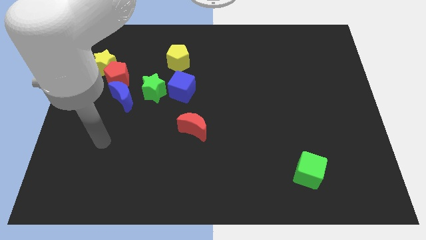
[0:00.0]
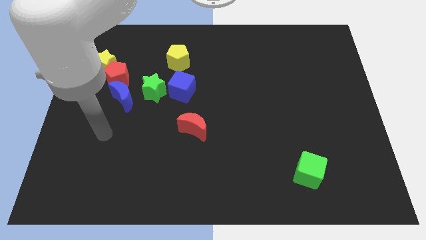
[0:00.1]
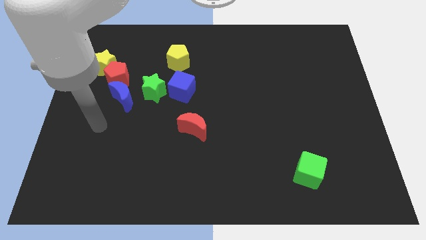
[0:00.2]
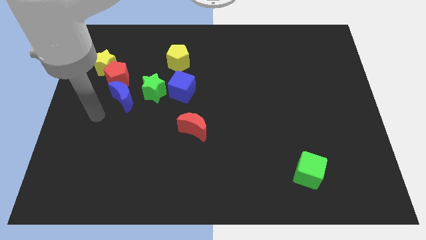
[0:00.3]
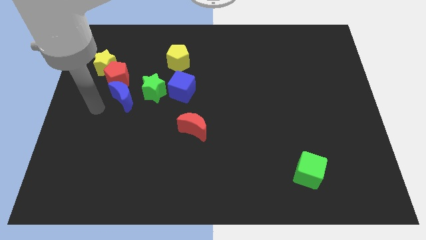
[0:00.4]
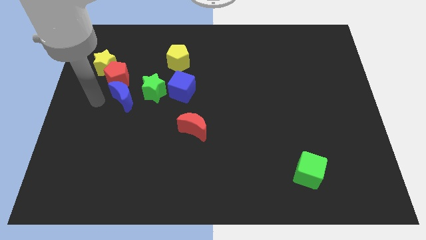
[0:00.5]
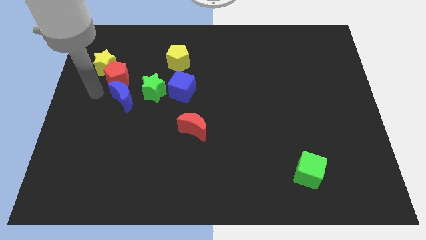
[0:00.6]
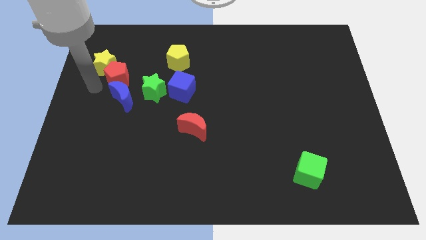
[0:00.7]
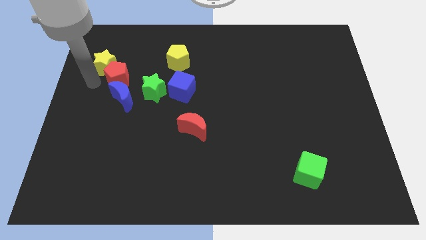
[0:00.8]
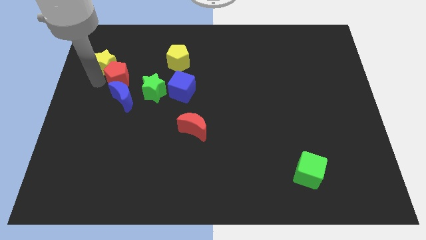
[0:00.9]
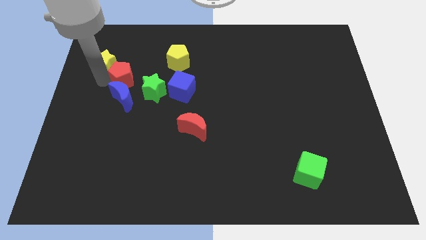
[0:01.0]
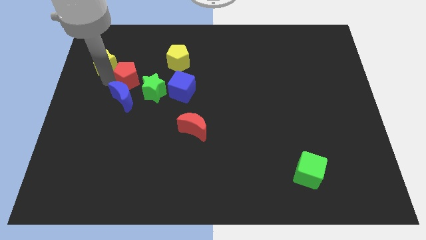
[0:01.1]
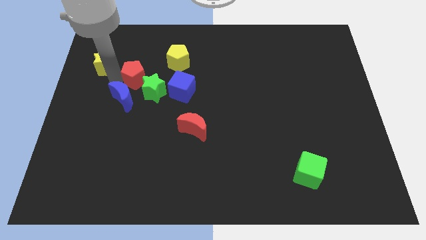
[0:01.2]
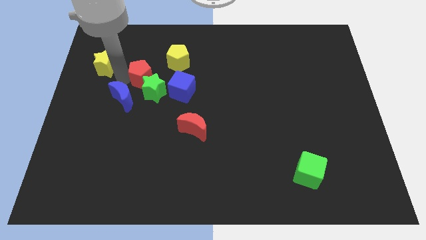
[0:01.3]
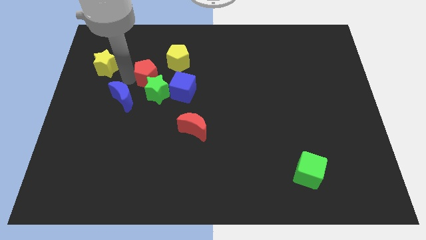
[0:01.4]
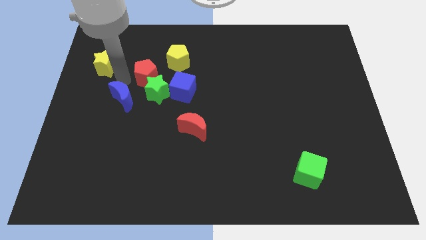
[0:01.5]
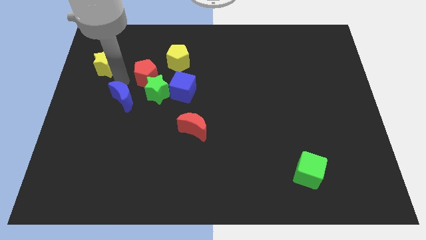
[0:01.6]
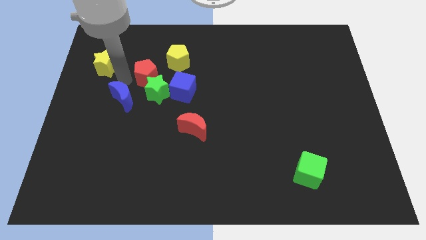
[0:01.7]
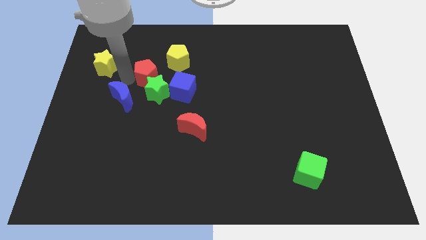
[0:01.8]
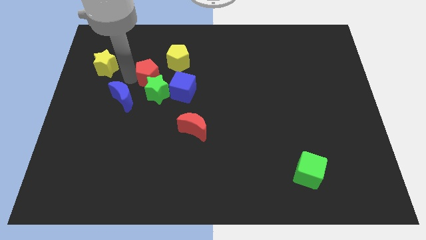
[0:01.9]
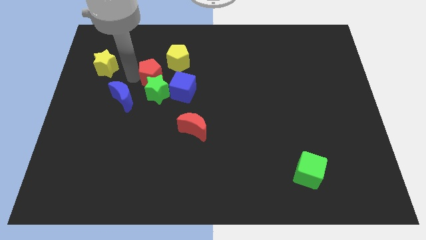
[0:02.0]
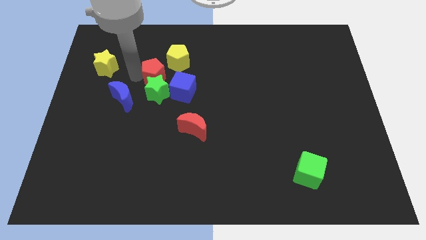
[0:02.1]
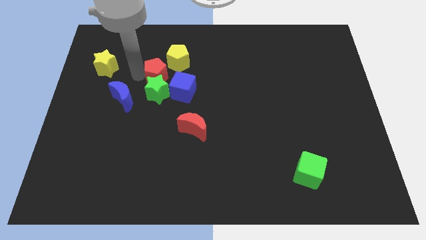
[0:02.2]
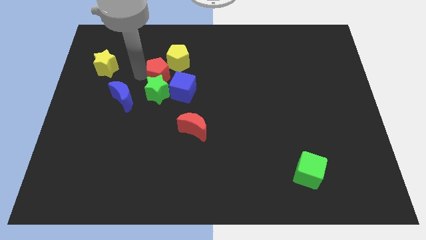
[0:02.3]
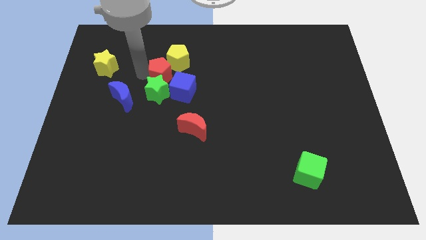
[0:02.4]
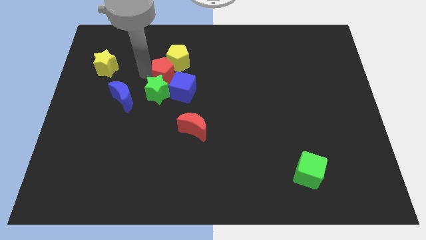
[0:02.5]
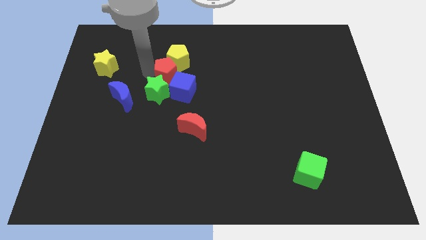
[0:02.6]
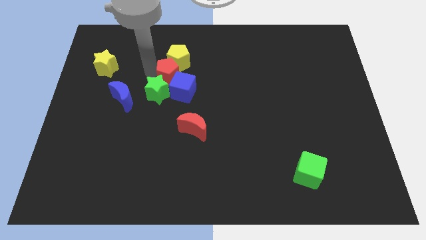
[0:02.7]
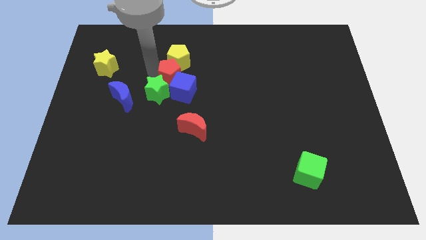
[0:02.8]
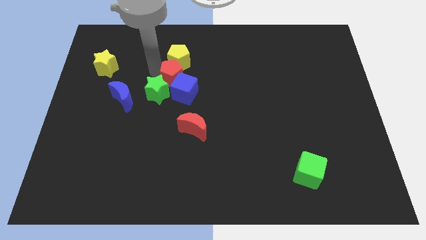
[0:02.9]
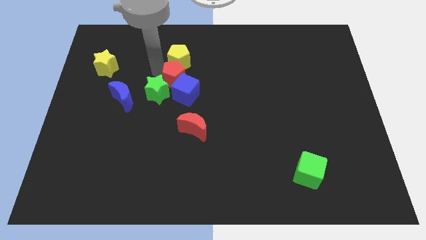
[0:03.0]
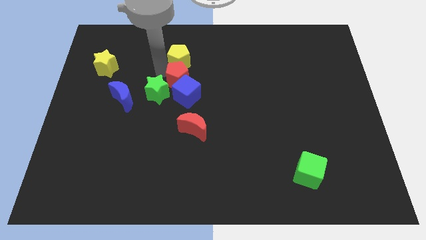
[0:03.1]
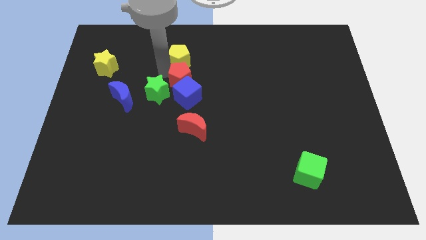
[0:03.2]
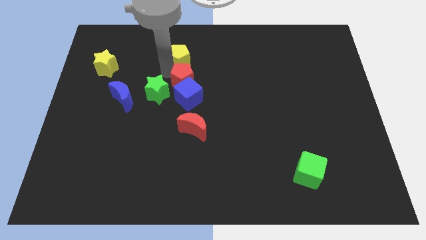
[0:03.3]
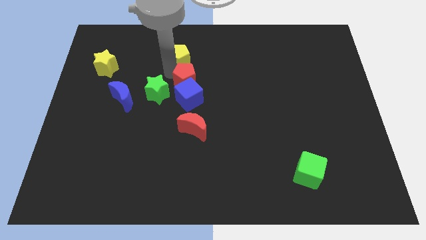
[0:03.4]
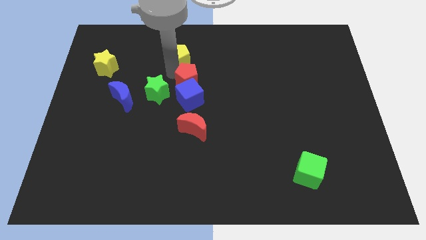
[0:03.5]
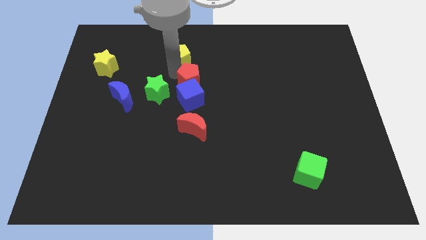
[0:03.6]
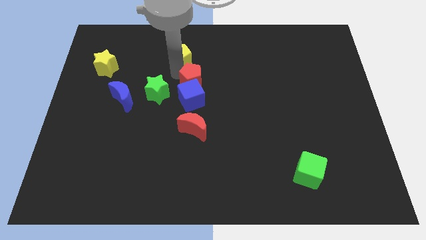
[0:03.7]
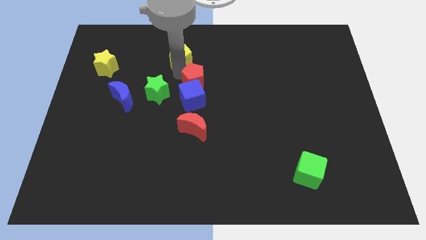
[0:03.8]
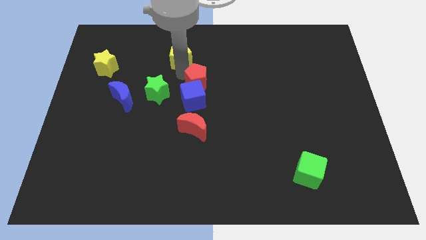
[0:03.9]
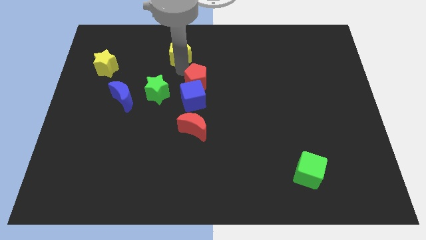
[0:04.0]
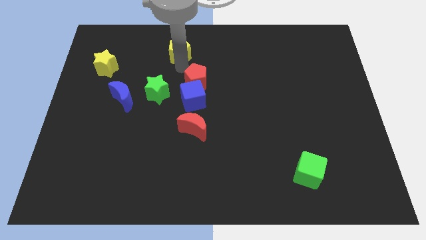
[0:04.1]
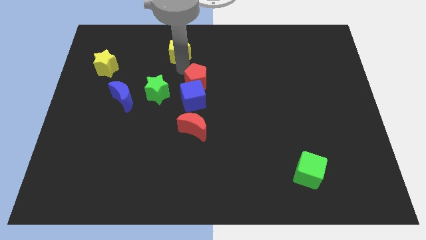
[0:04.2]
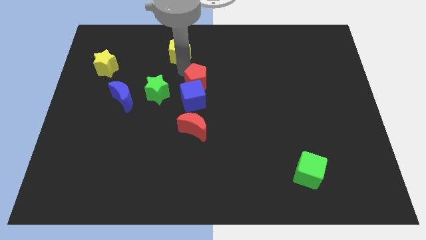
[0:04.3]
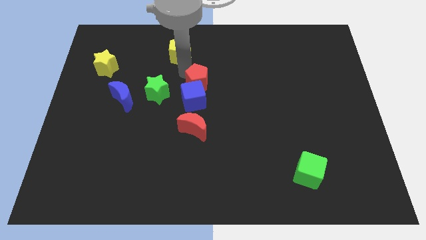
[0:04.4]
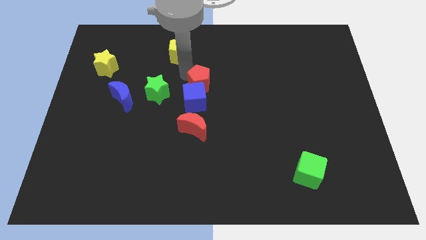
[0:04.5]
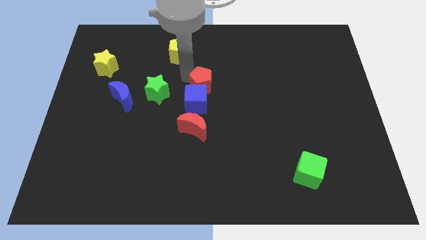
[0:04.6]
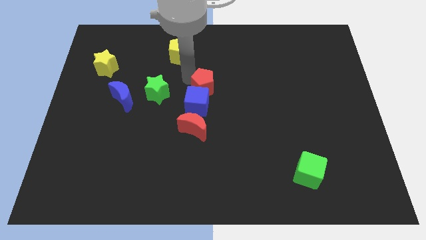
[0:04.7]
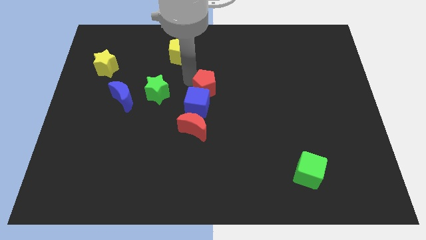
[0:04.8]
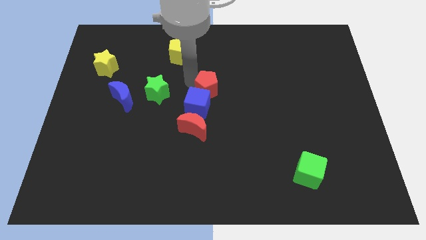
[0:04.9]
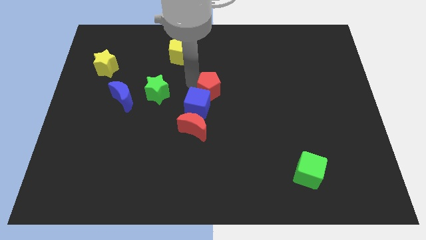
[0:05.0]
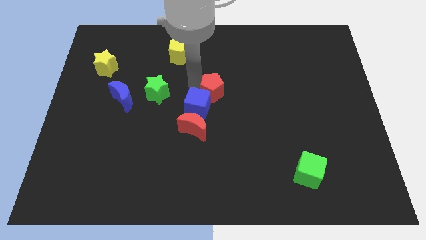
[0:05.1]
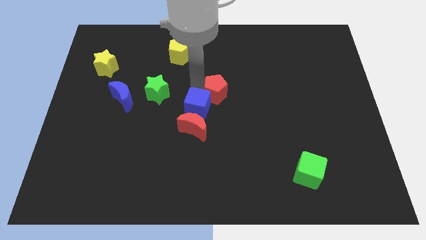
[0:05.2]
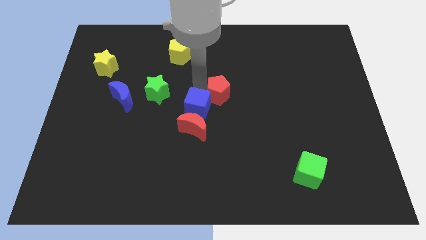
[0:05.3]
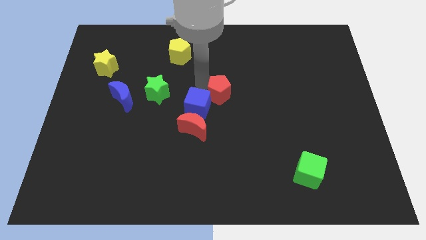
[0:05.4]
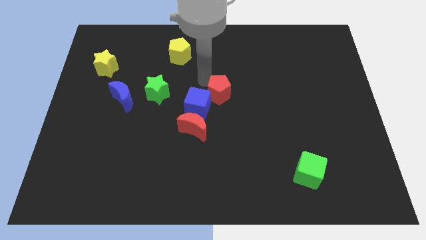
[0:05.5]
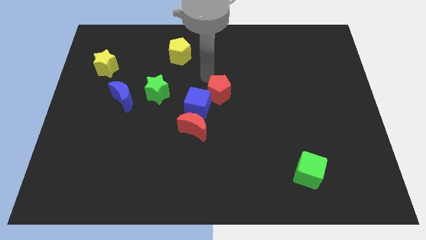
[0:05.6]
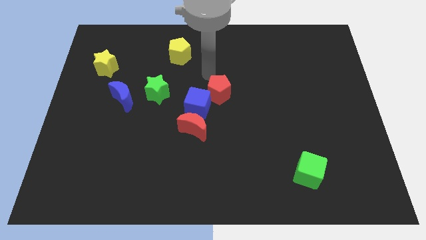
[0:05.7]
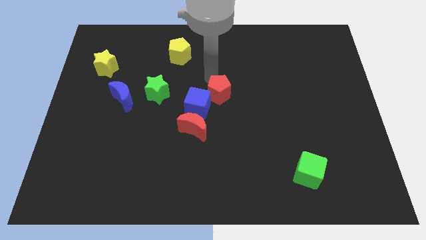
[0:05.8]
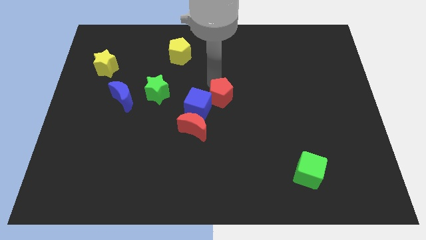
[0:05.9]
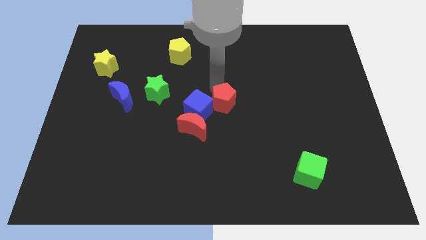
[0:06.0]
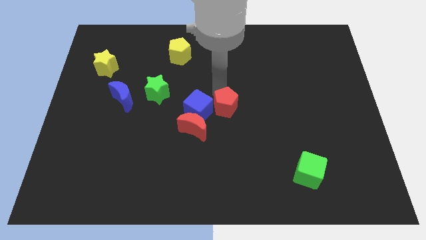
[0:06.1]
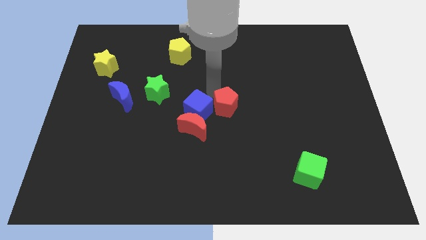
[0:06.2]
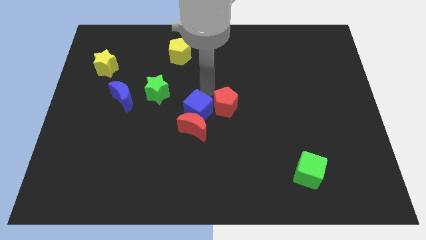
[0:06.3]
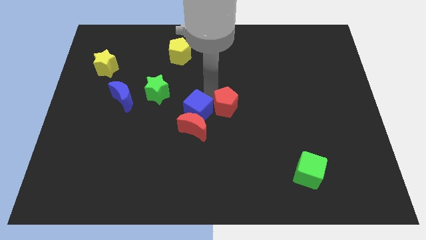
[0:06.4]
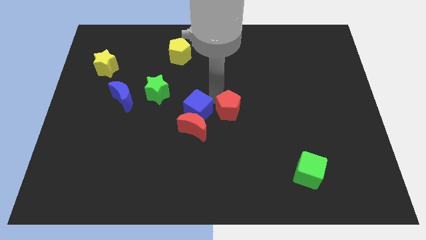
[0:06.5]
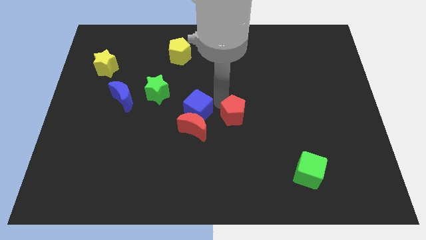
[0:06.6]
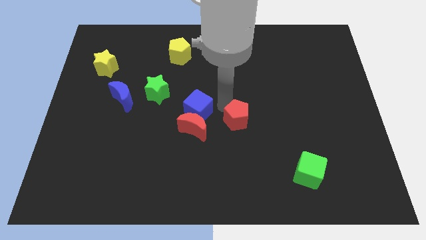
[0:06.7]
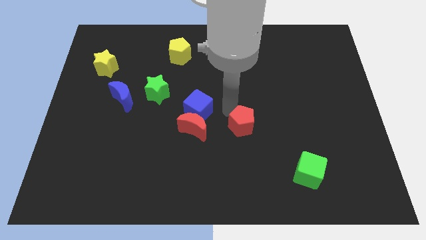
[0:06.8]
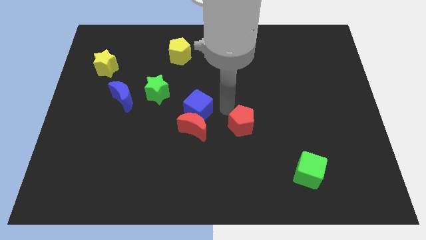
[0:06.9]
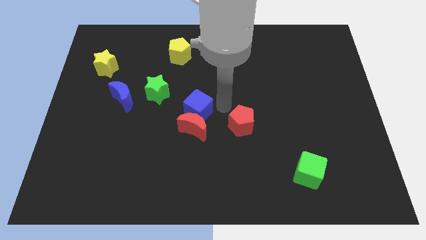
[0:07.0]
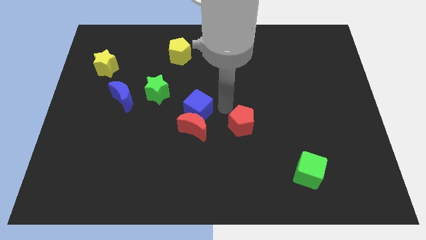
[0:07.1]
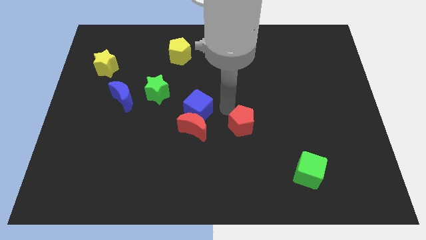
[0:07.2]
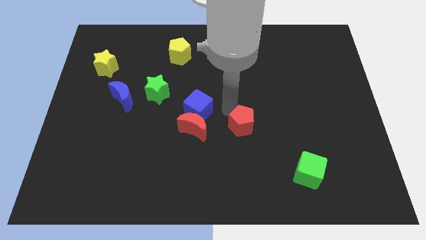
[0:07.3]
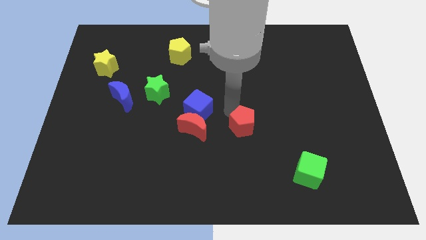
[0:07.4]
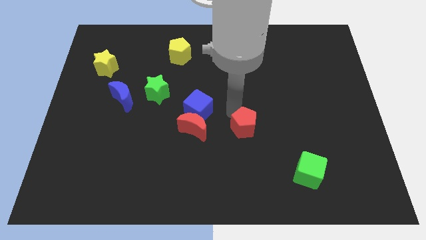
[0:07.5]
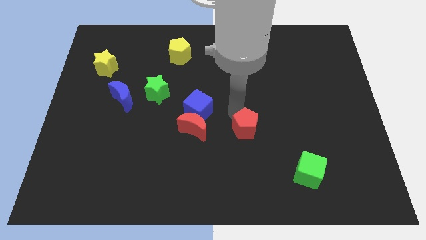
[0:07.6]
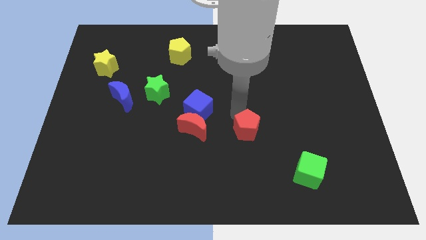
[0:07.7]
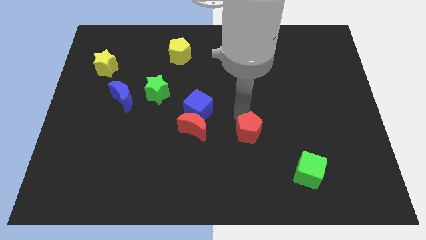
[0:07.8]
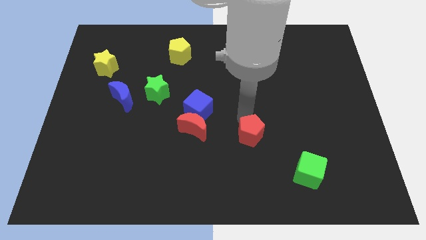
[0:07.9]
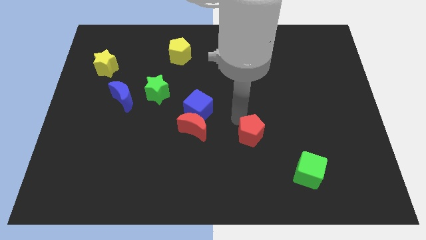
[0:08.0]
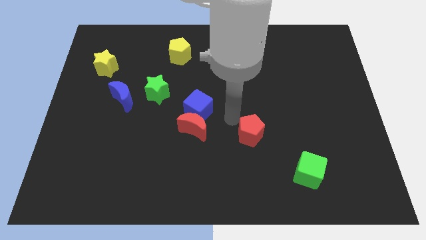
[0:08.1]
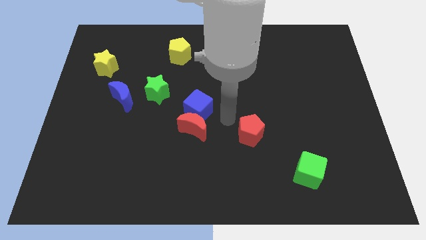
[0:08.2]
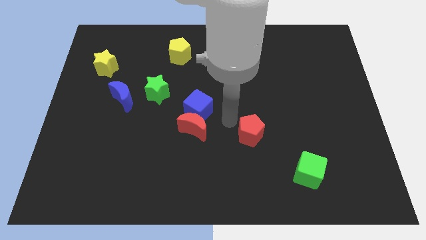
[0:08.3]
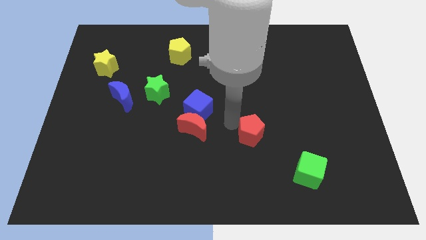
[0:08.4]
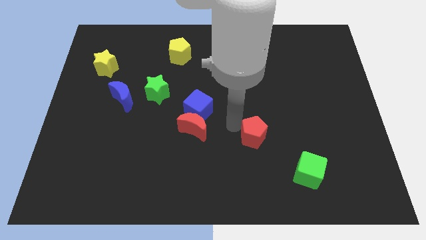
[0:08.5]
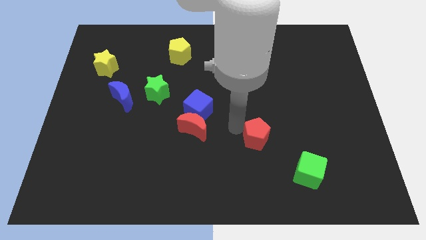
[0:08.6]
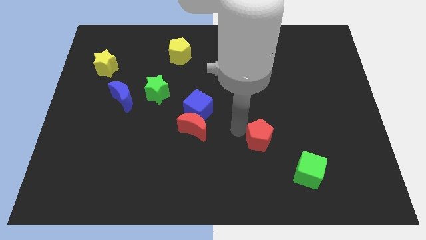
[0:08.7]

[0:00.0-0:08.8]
slide the red pentagon to the top left side of the green cube
